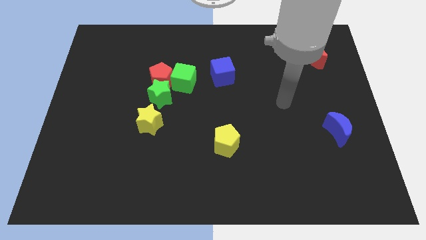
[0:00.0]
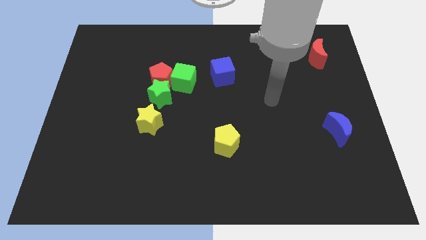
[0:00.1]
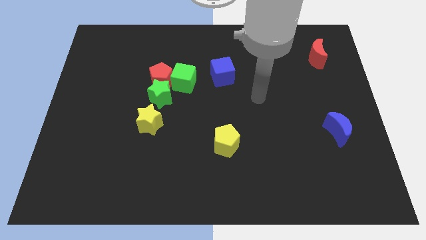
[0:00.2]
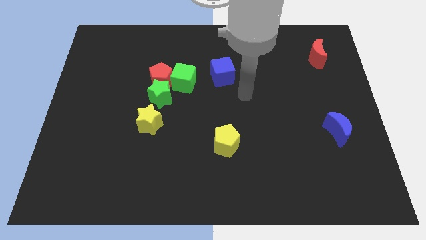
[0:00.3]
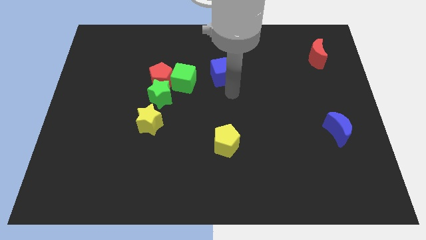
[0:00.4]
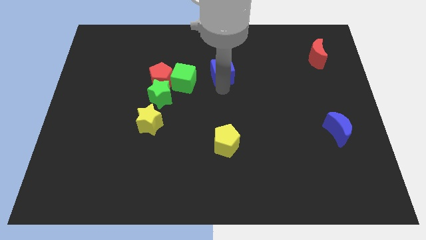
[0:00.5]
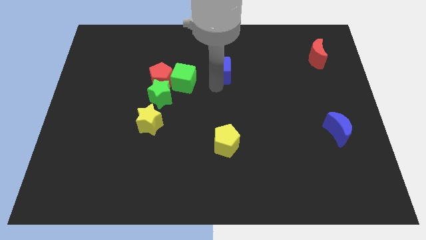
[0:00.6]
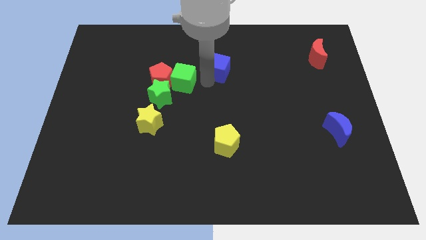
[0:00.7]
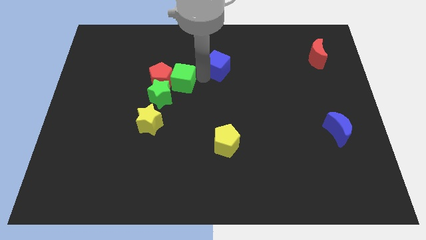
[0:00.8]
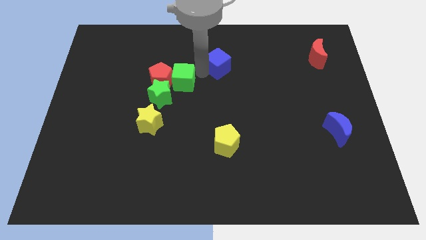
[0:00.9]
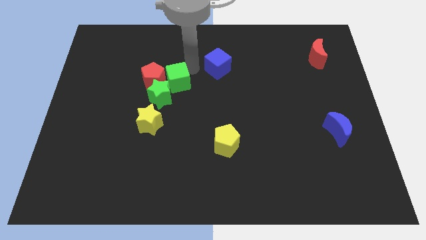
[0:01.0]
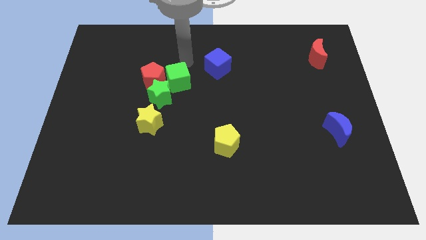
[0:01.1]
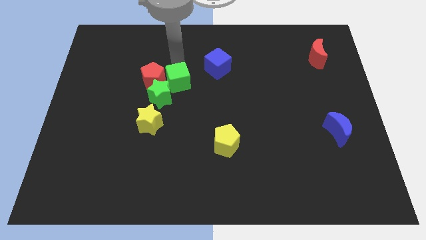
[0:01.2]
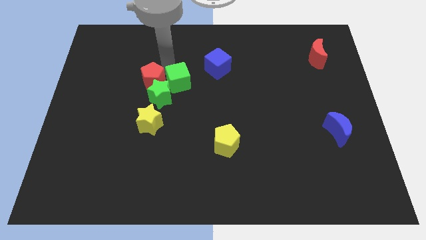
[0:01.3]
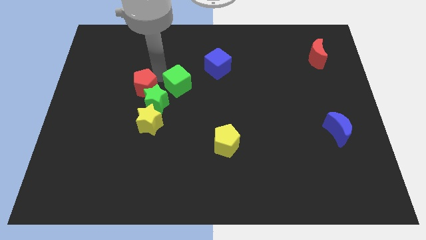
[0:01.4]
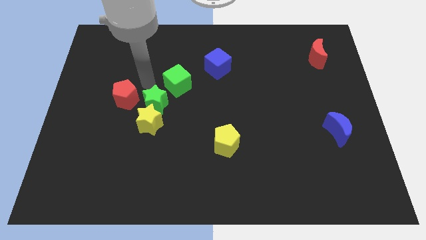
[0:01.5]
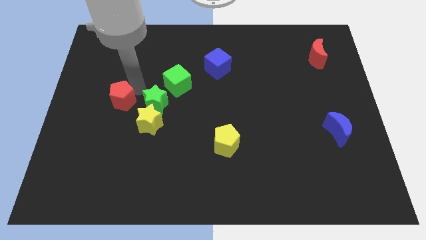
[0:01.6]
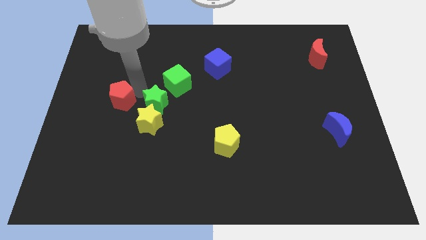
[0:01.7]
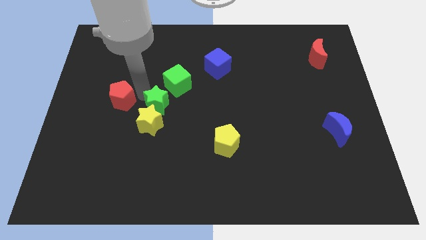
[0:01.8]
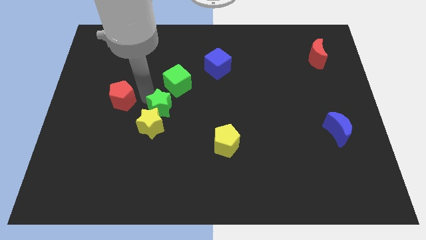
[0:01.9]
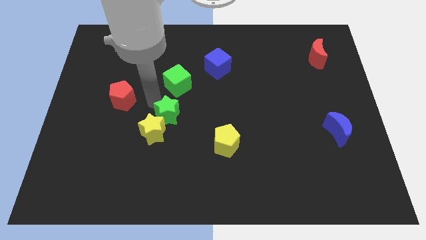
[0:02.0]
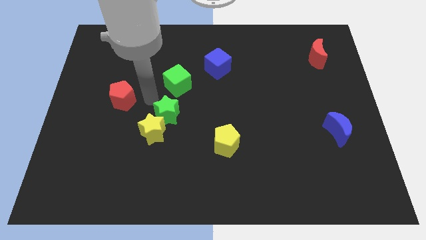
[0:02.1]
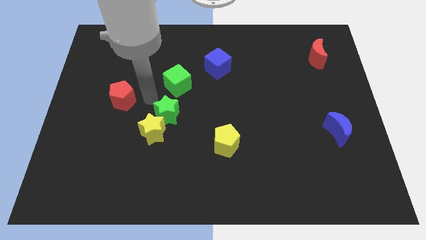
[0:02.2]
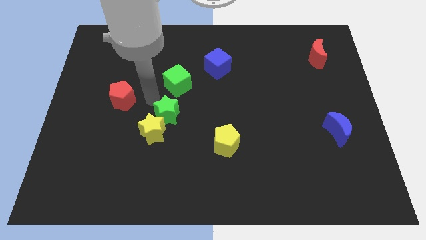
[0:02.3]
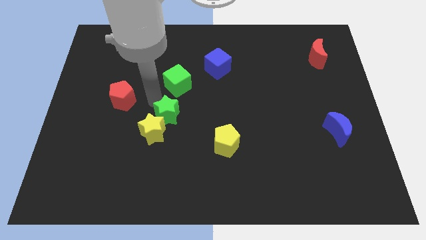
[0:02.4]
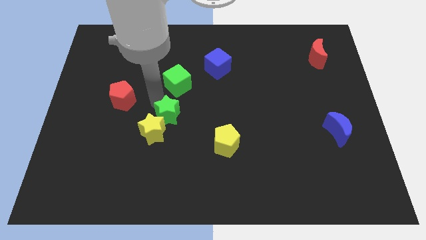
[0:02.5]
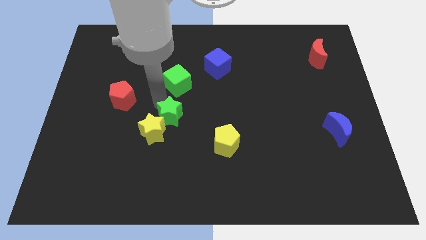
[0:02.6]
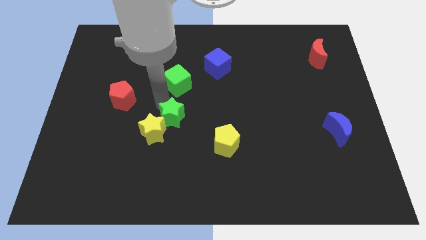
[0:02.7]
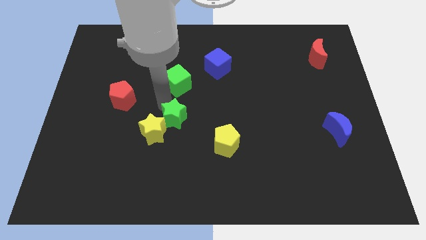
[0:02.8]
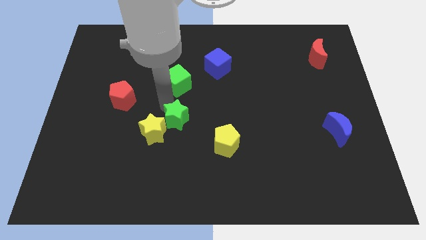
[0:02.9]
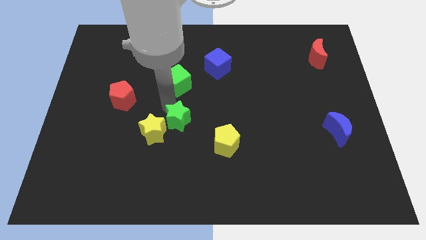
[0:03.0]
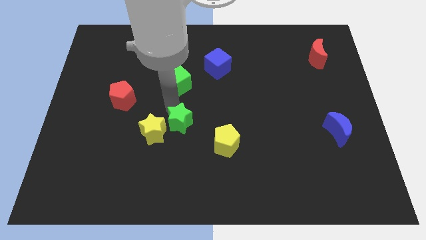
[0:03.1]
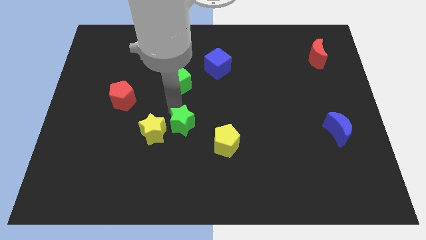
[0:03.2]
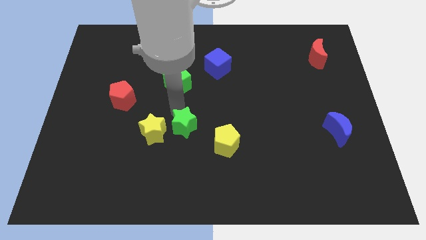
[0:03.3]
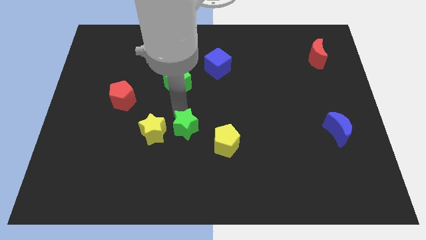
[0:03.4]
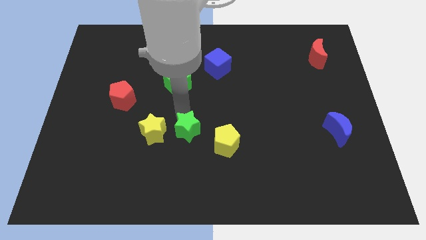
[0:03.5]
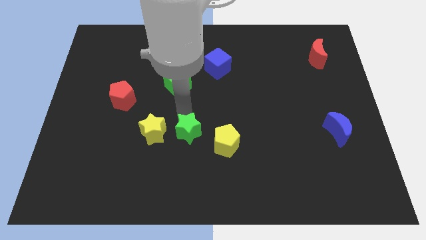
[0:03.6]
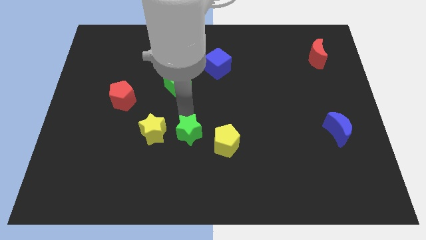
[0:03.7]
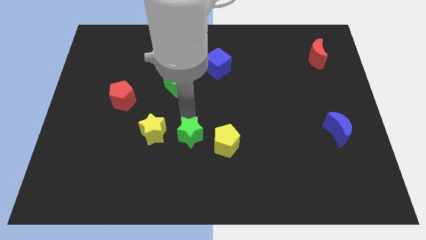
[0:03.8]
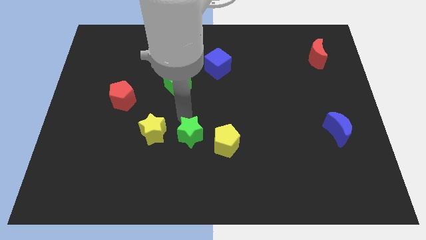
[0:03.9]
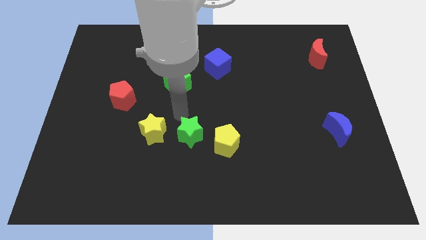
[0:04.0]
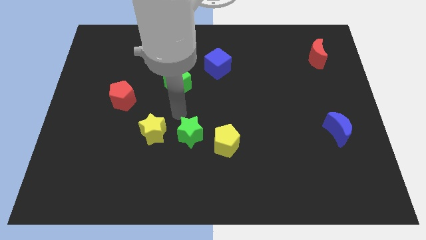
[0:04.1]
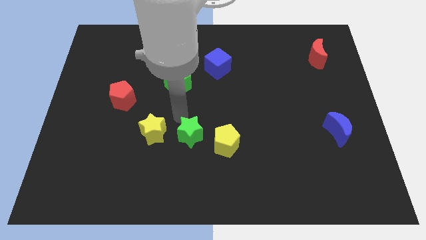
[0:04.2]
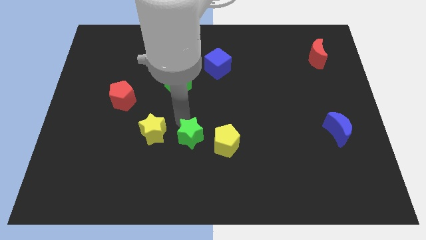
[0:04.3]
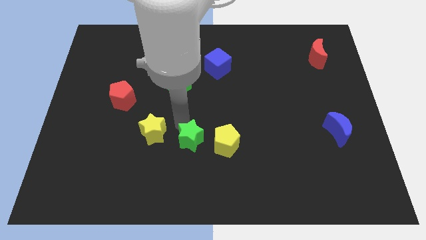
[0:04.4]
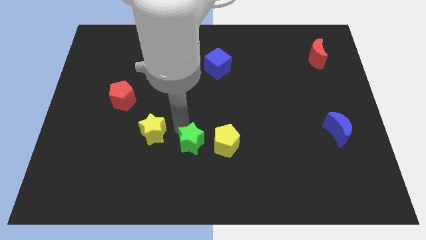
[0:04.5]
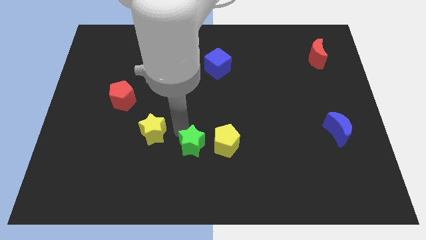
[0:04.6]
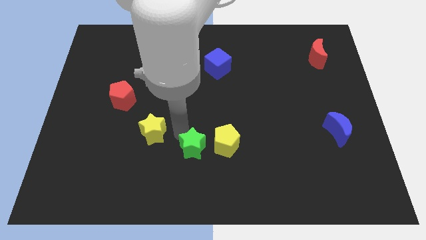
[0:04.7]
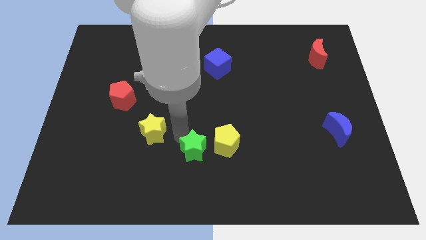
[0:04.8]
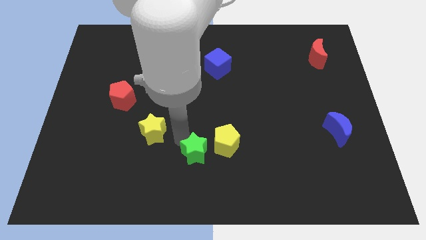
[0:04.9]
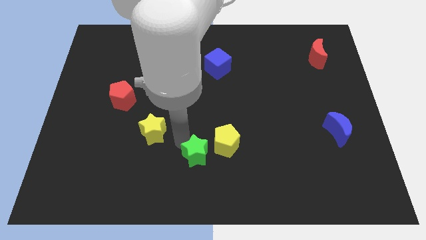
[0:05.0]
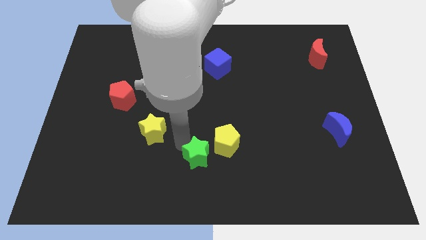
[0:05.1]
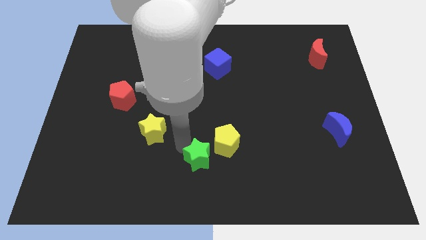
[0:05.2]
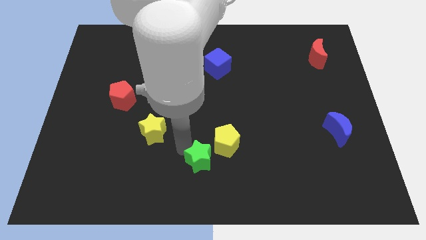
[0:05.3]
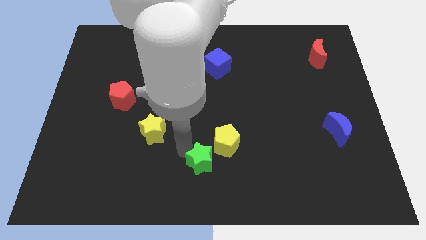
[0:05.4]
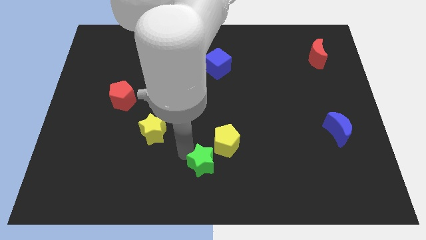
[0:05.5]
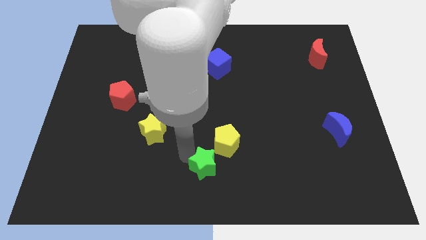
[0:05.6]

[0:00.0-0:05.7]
move the green star down and right

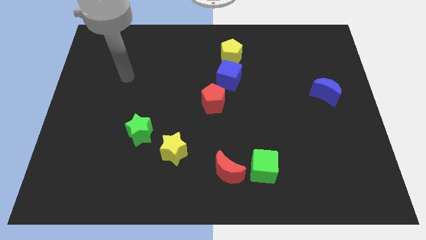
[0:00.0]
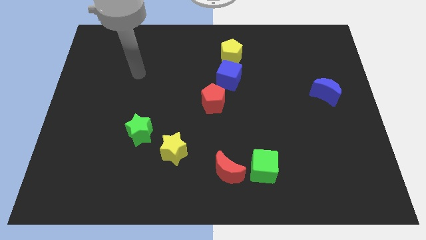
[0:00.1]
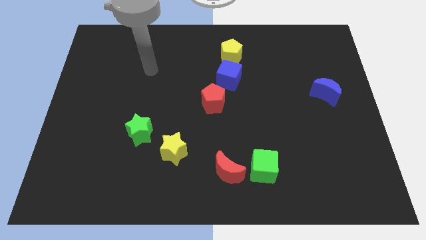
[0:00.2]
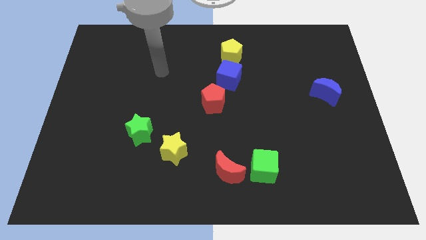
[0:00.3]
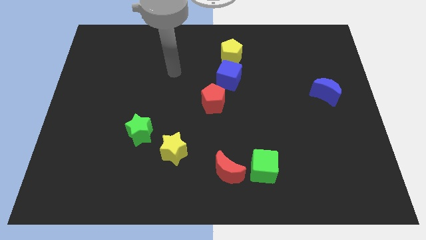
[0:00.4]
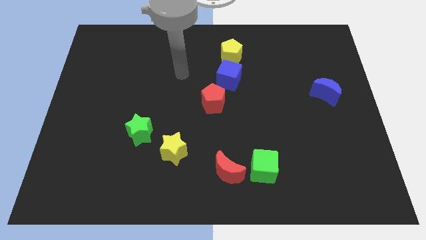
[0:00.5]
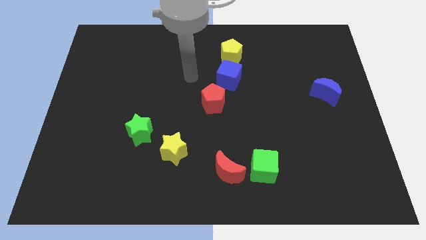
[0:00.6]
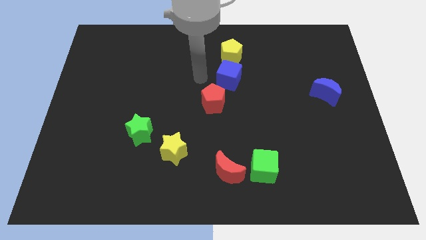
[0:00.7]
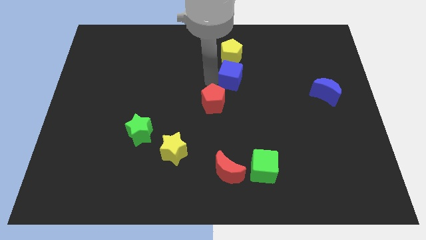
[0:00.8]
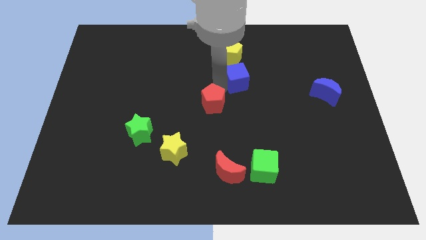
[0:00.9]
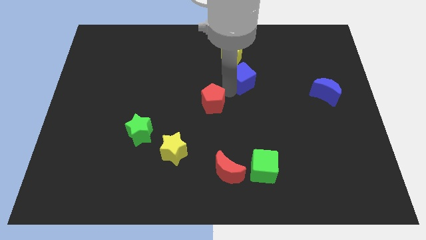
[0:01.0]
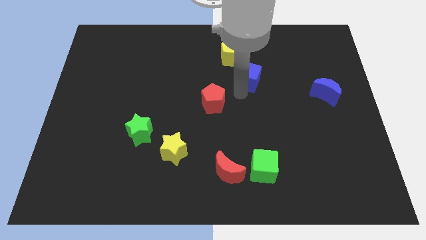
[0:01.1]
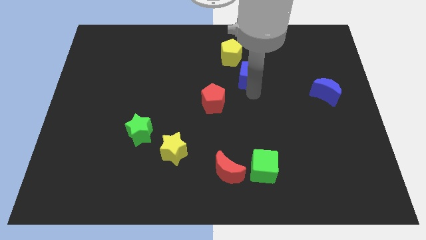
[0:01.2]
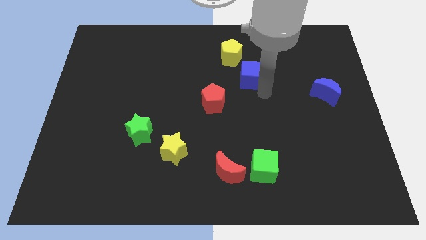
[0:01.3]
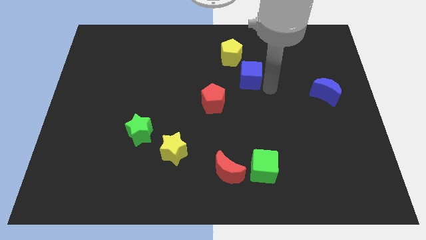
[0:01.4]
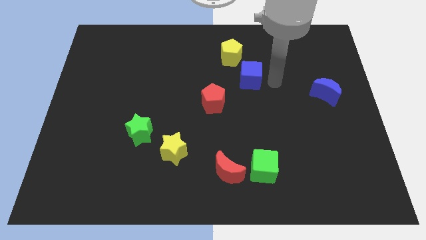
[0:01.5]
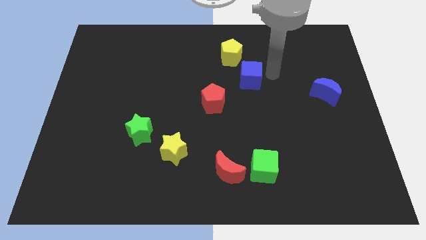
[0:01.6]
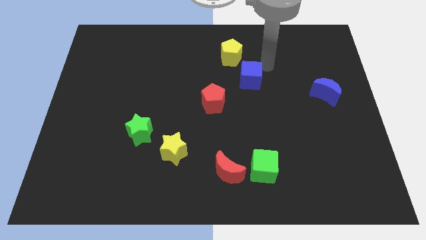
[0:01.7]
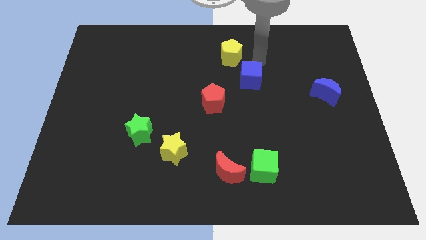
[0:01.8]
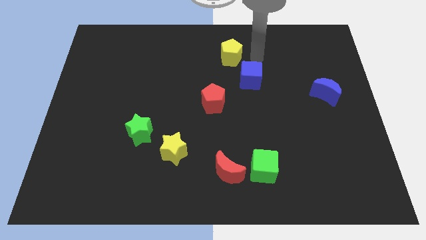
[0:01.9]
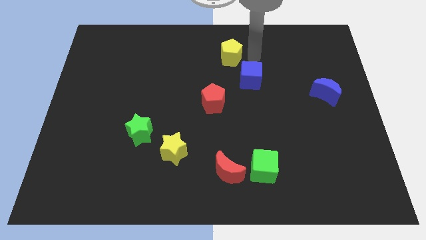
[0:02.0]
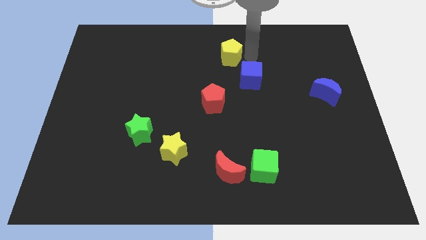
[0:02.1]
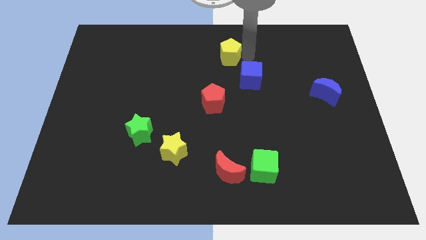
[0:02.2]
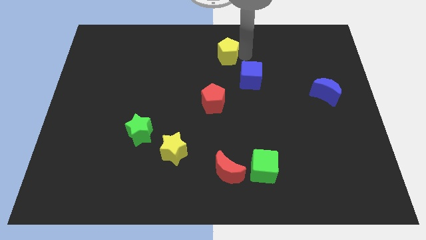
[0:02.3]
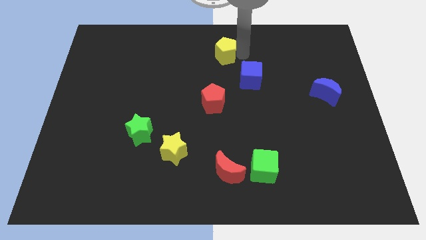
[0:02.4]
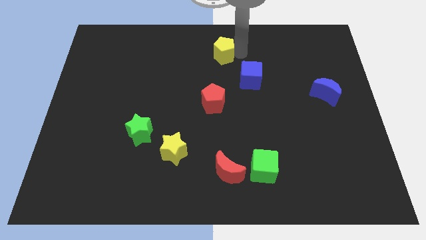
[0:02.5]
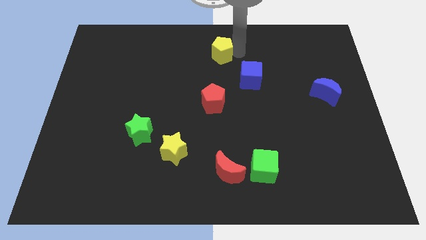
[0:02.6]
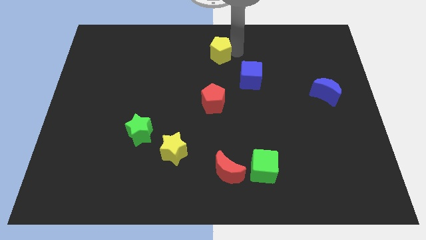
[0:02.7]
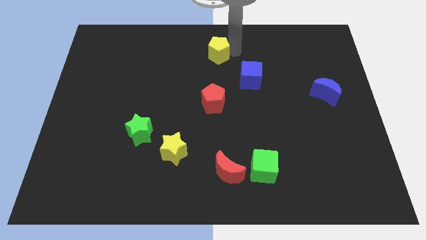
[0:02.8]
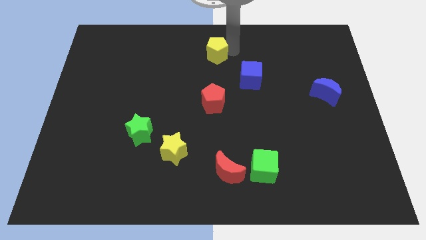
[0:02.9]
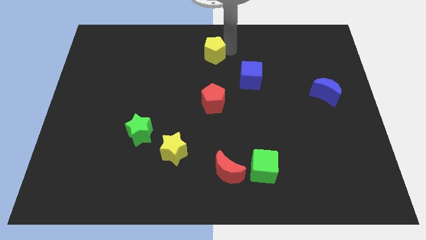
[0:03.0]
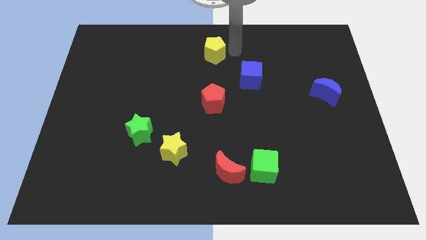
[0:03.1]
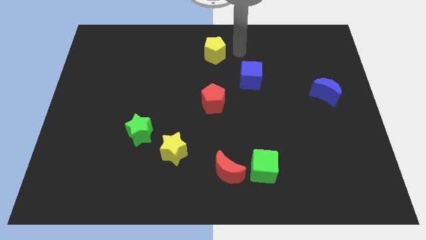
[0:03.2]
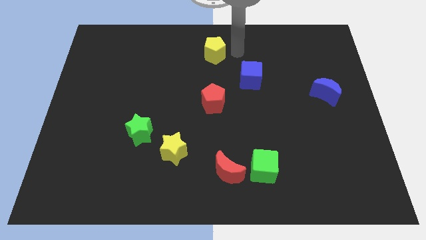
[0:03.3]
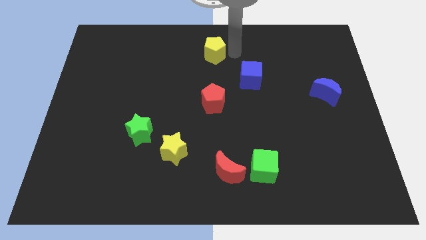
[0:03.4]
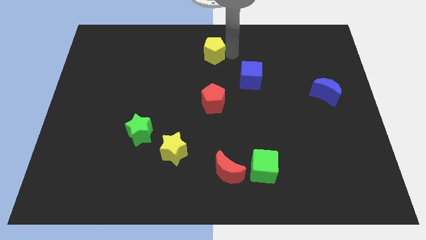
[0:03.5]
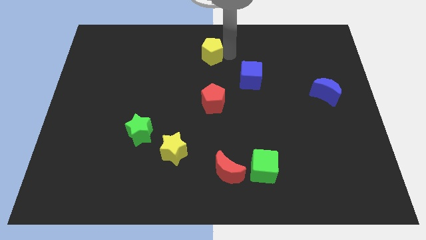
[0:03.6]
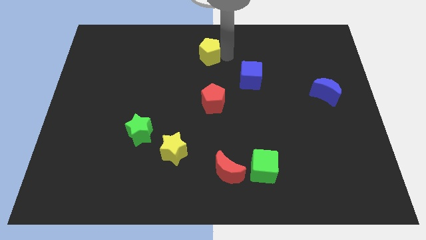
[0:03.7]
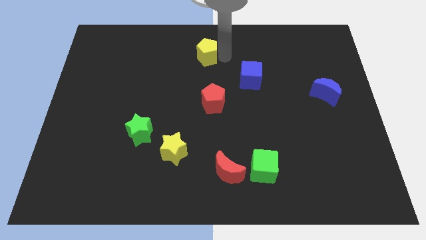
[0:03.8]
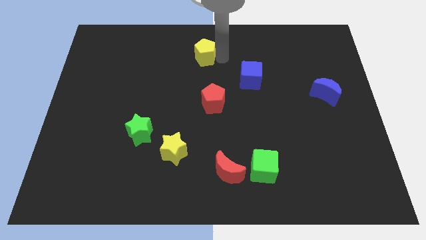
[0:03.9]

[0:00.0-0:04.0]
slide the yellow pentagon a bit left
